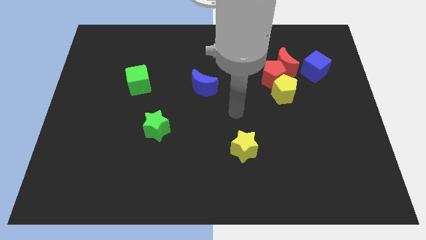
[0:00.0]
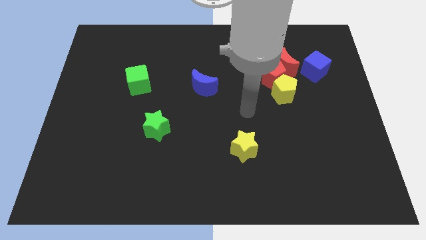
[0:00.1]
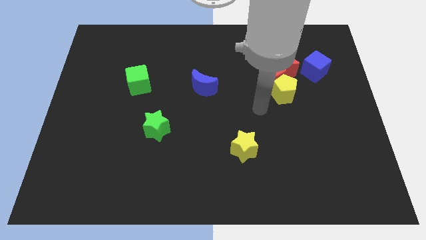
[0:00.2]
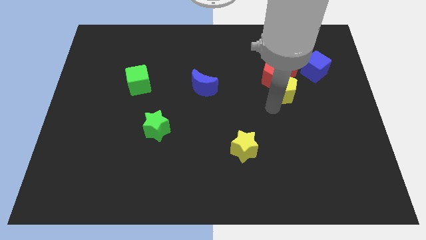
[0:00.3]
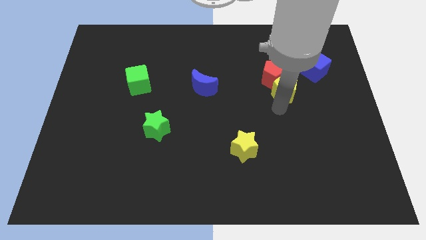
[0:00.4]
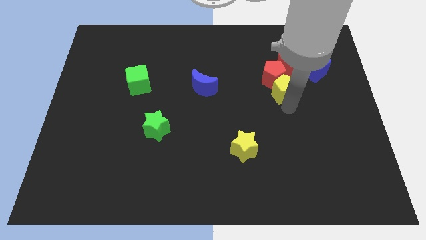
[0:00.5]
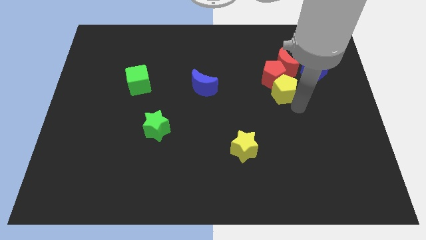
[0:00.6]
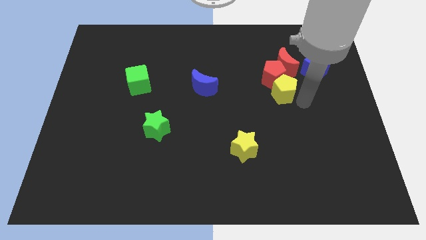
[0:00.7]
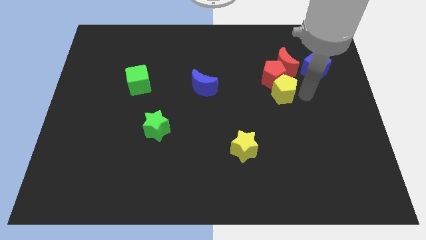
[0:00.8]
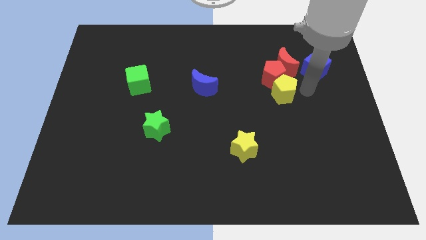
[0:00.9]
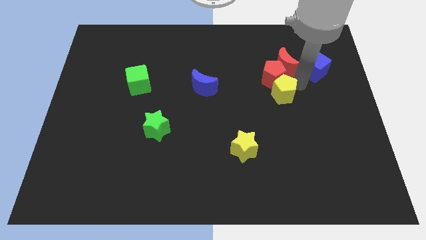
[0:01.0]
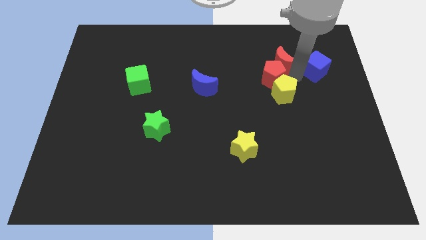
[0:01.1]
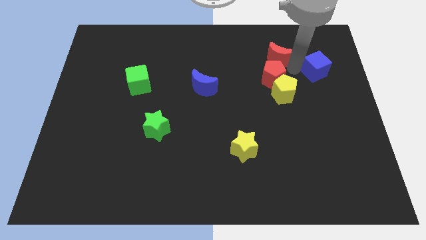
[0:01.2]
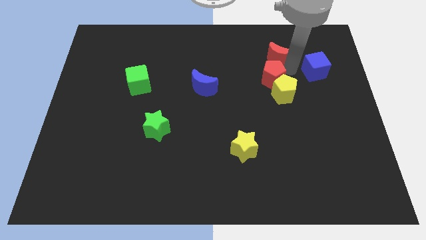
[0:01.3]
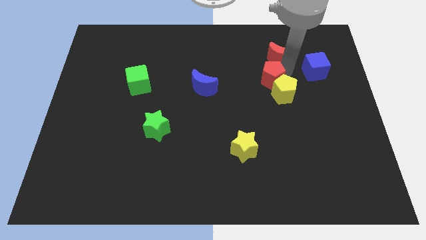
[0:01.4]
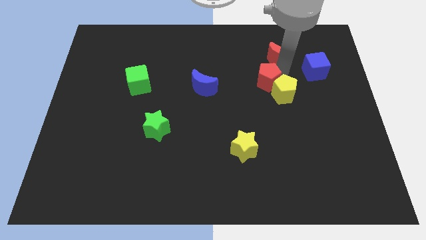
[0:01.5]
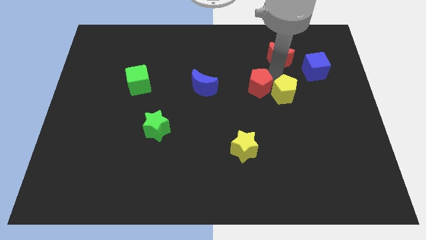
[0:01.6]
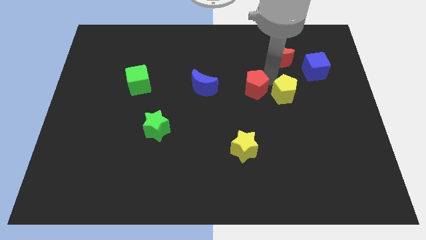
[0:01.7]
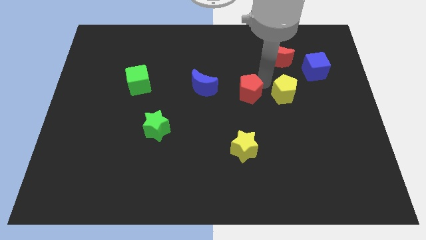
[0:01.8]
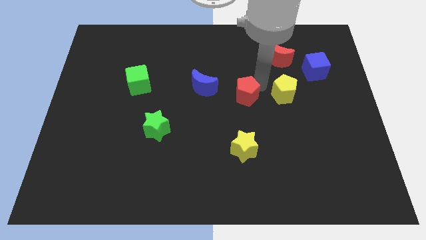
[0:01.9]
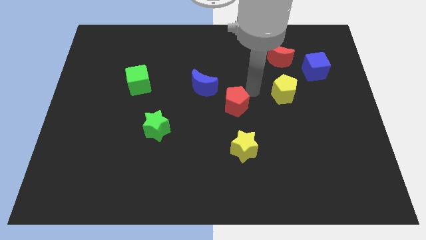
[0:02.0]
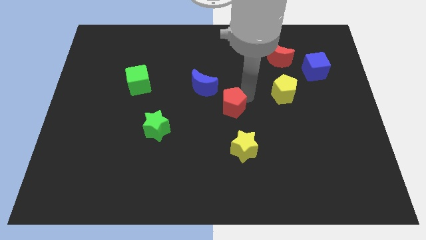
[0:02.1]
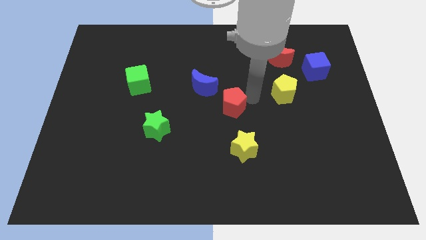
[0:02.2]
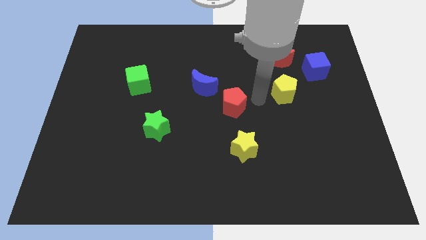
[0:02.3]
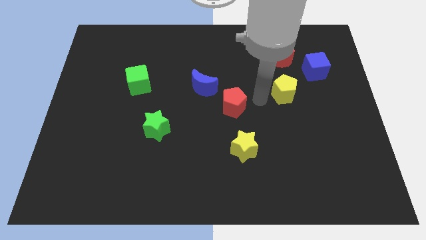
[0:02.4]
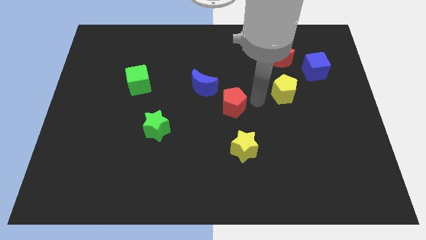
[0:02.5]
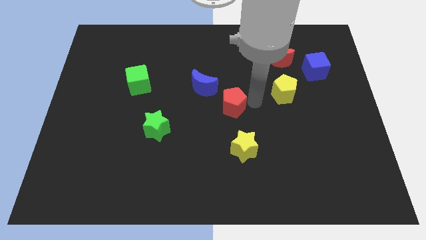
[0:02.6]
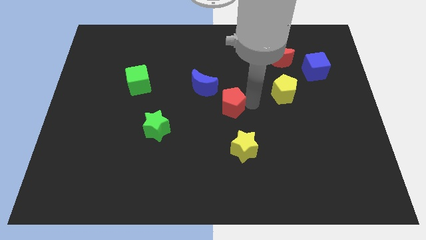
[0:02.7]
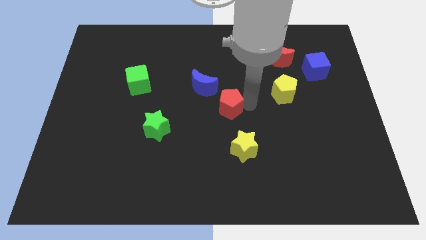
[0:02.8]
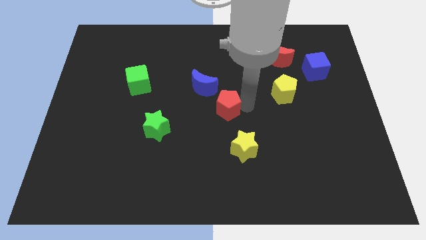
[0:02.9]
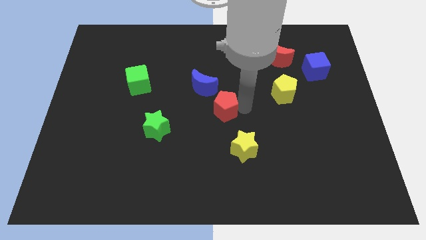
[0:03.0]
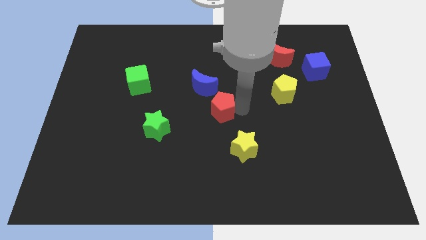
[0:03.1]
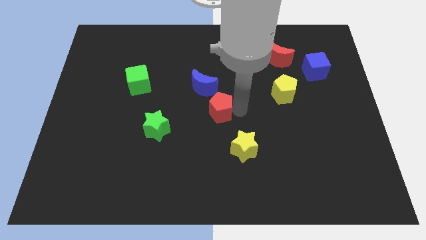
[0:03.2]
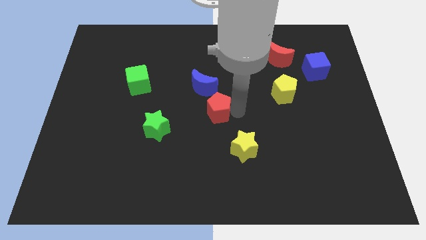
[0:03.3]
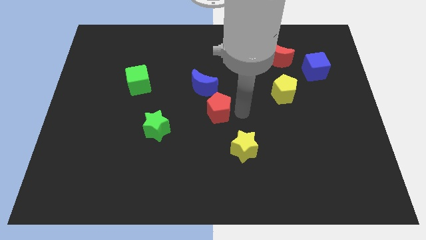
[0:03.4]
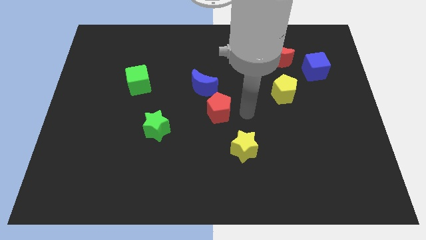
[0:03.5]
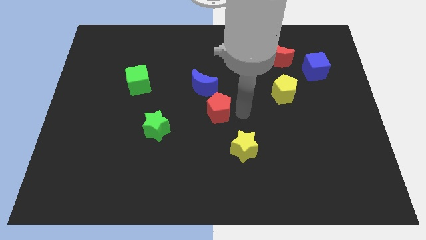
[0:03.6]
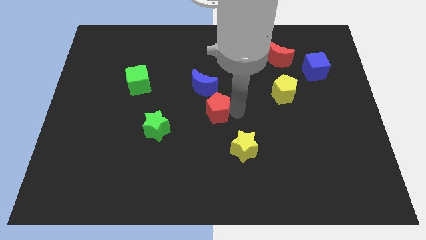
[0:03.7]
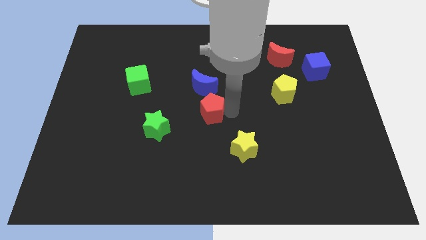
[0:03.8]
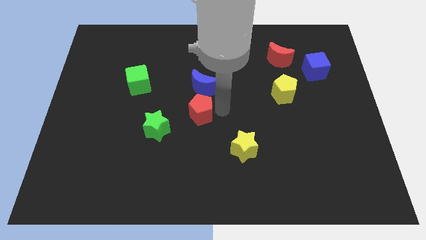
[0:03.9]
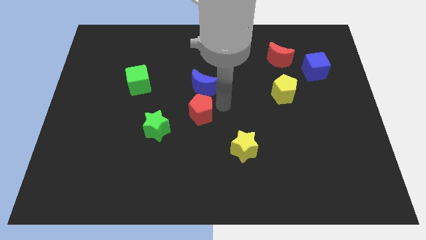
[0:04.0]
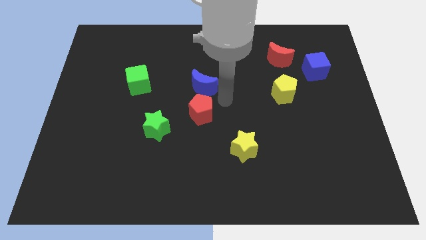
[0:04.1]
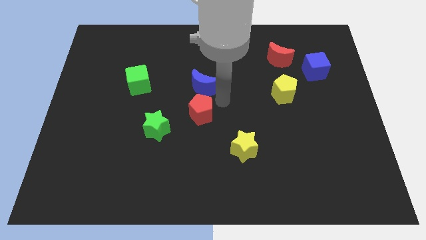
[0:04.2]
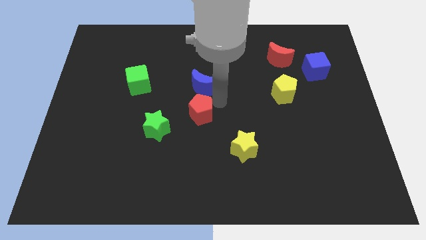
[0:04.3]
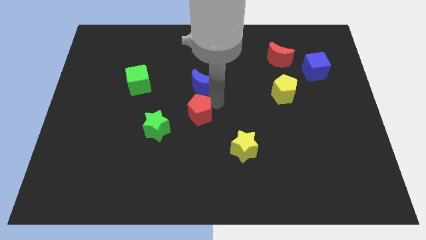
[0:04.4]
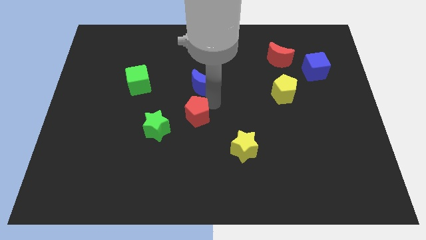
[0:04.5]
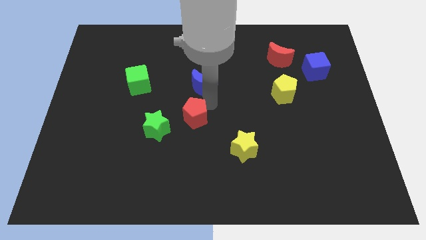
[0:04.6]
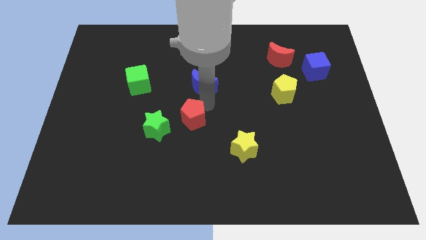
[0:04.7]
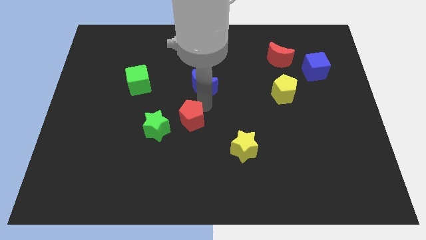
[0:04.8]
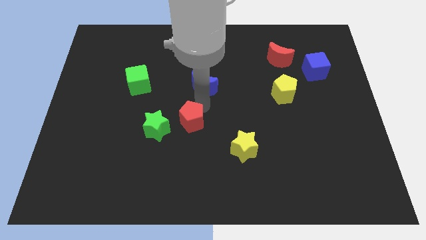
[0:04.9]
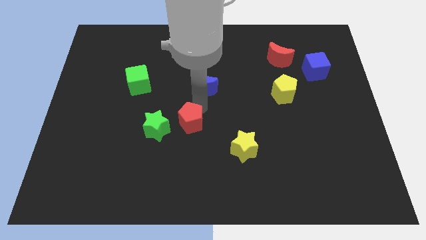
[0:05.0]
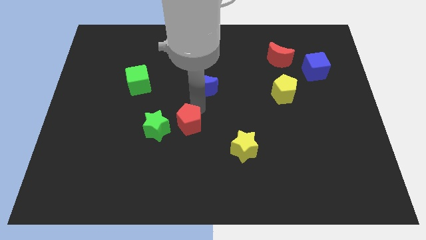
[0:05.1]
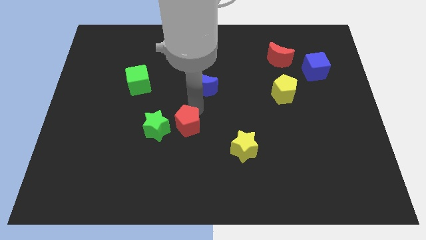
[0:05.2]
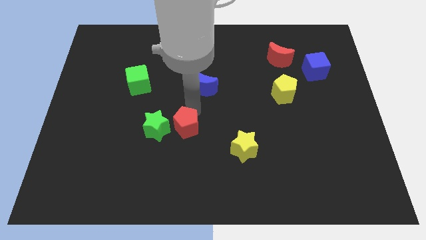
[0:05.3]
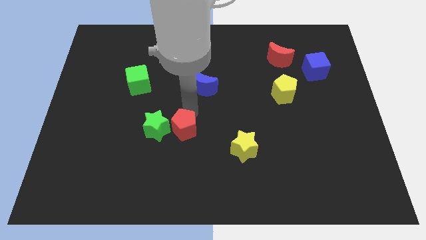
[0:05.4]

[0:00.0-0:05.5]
put the red pentagon towards the green star

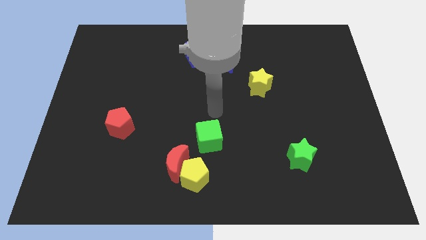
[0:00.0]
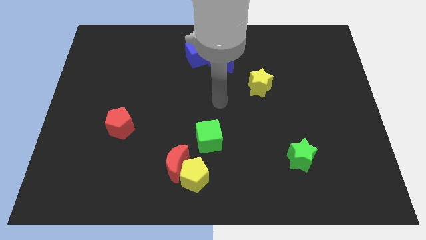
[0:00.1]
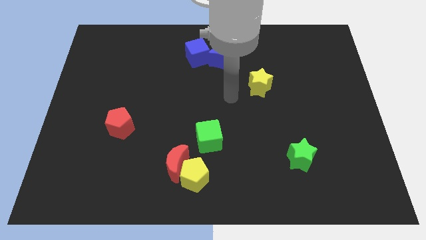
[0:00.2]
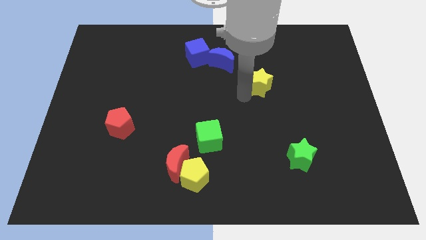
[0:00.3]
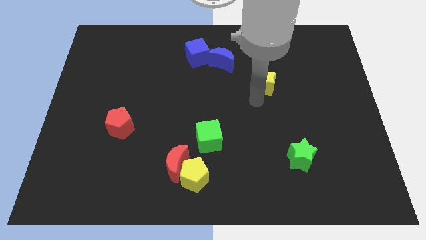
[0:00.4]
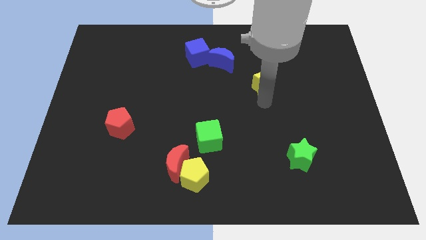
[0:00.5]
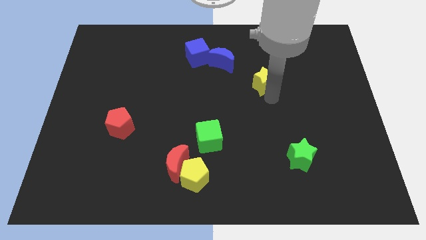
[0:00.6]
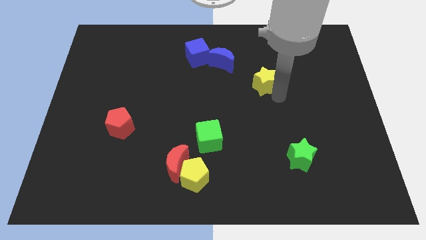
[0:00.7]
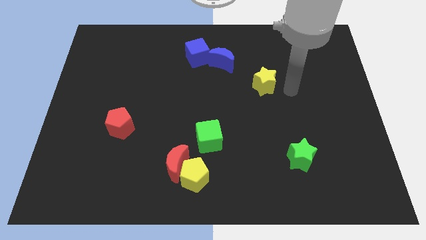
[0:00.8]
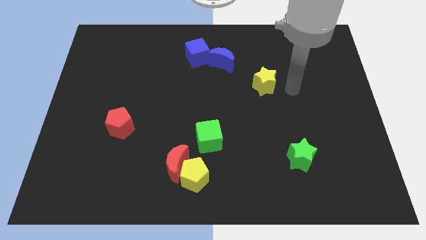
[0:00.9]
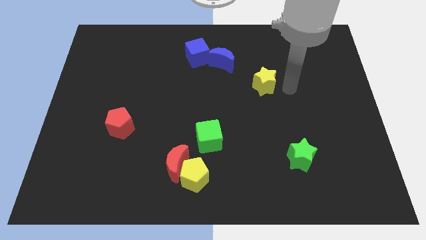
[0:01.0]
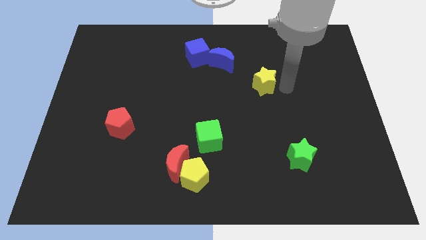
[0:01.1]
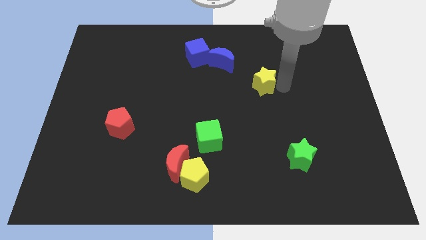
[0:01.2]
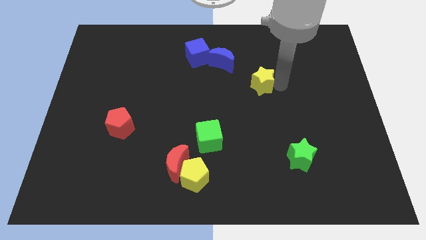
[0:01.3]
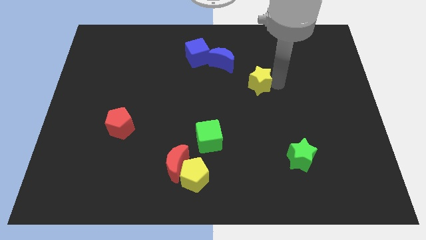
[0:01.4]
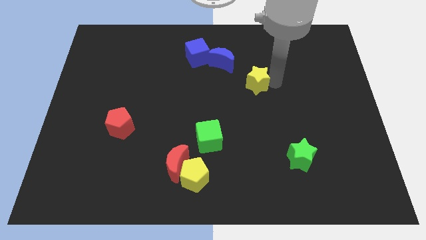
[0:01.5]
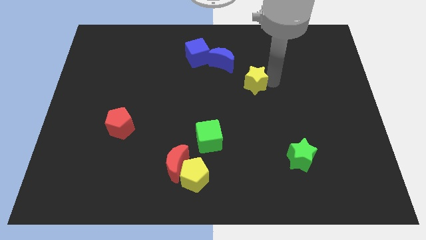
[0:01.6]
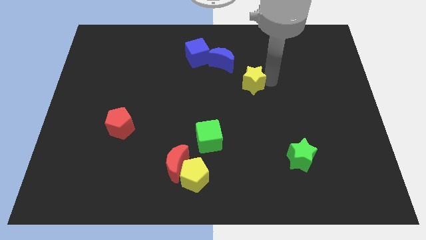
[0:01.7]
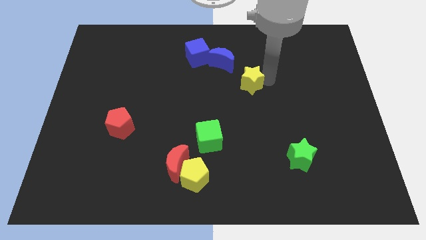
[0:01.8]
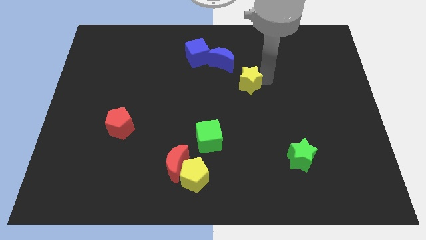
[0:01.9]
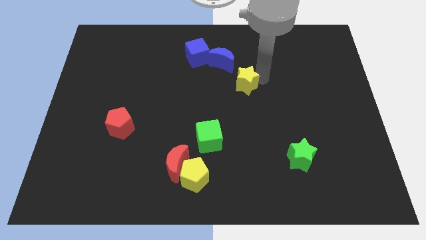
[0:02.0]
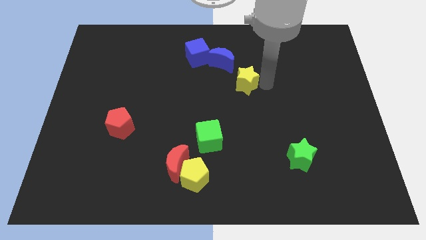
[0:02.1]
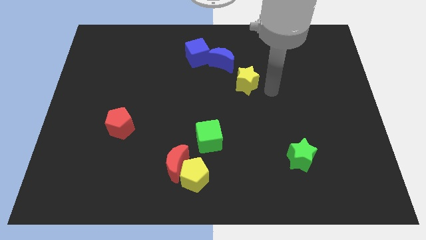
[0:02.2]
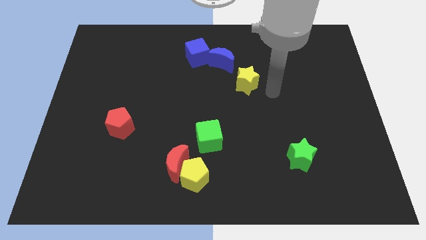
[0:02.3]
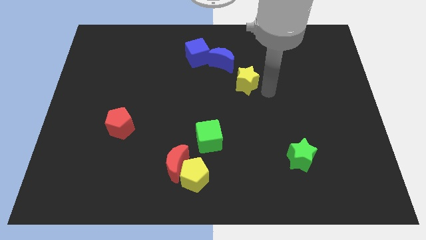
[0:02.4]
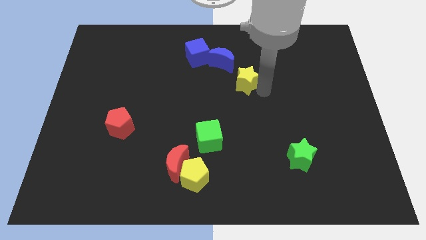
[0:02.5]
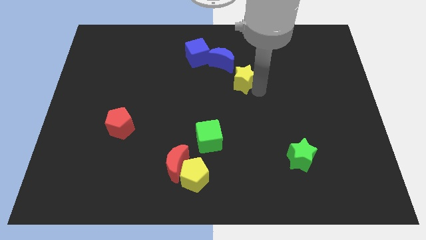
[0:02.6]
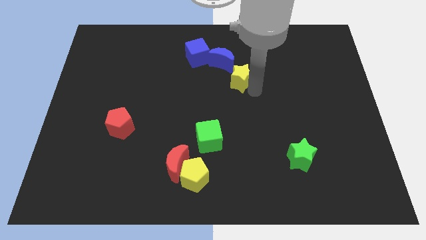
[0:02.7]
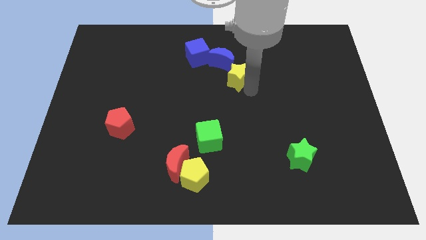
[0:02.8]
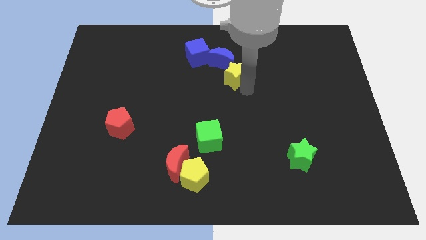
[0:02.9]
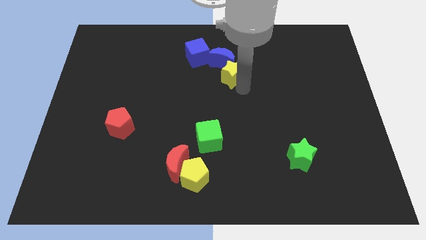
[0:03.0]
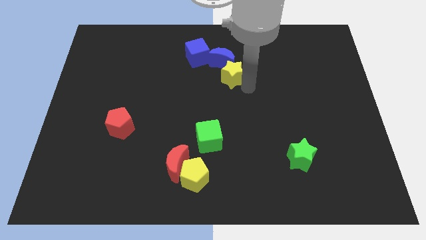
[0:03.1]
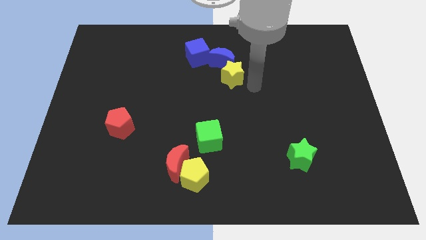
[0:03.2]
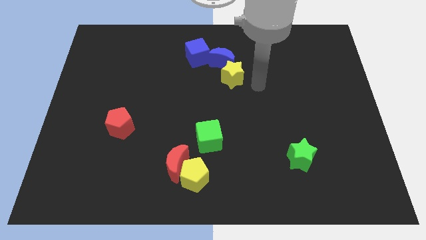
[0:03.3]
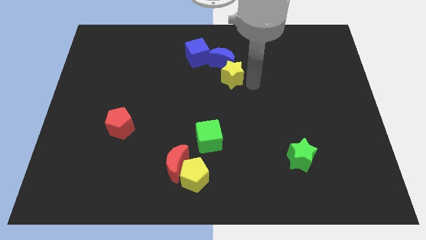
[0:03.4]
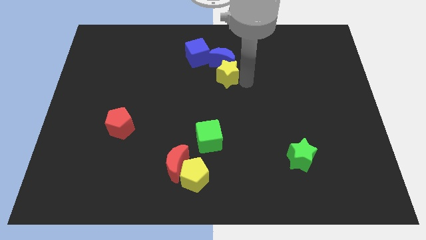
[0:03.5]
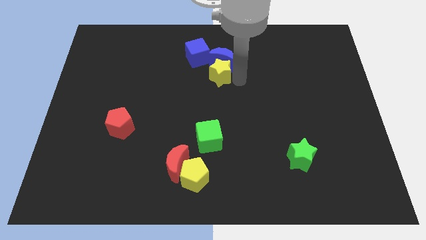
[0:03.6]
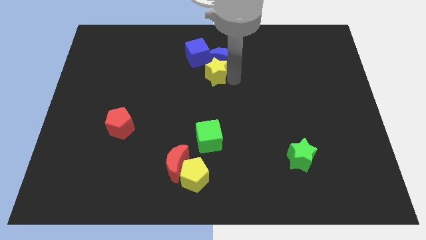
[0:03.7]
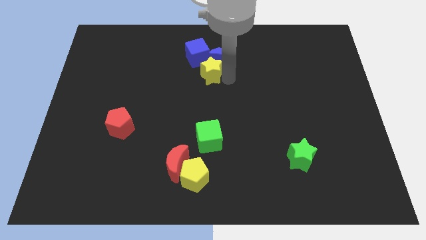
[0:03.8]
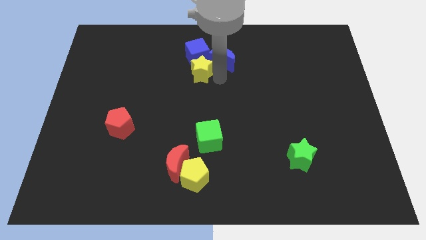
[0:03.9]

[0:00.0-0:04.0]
slide the yellow star next to the blue cube
